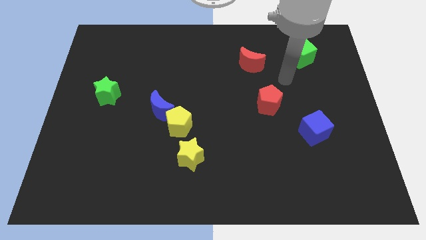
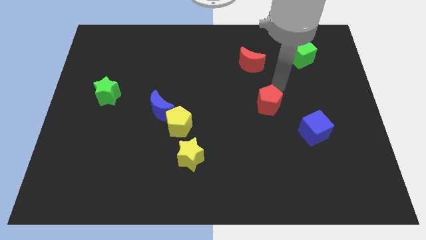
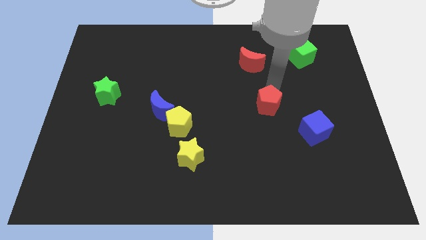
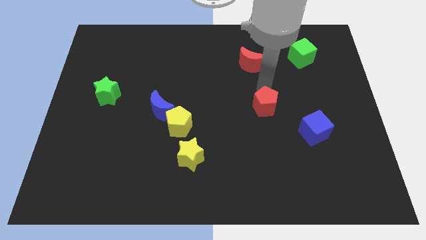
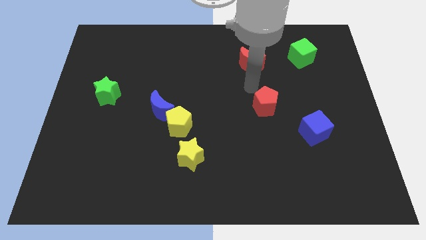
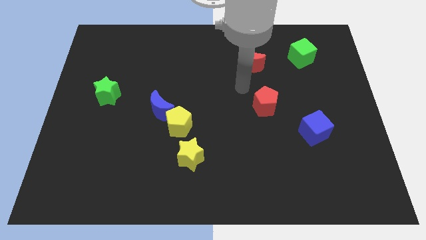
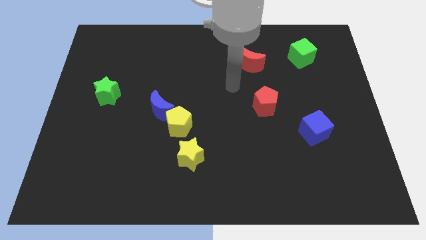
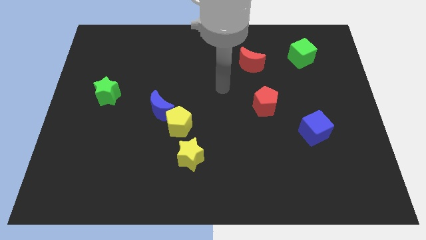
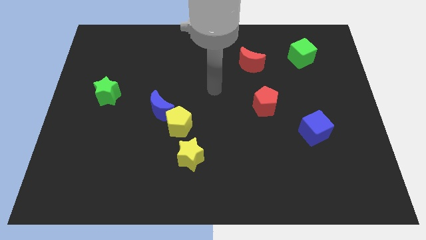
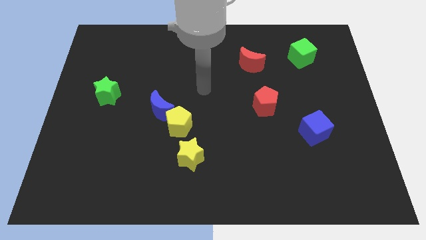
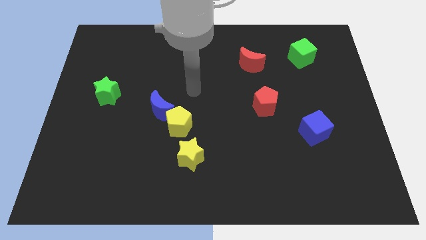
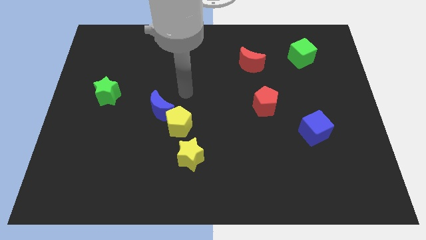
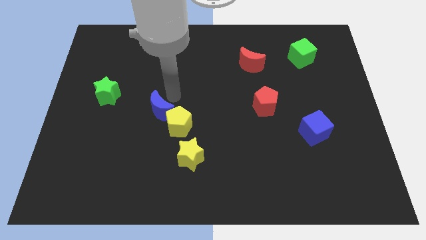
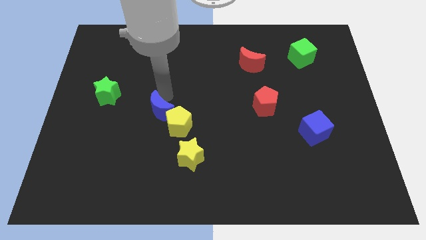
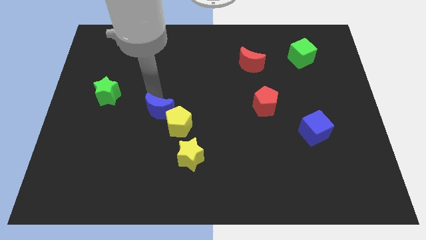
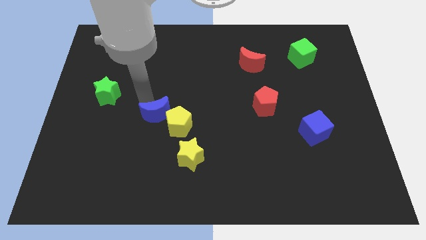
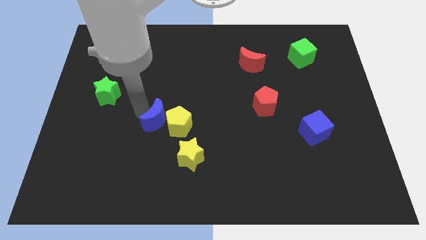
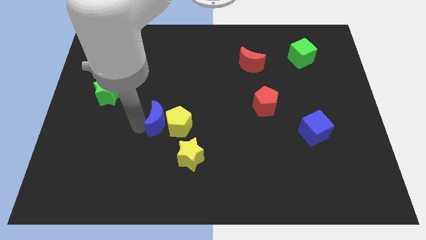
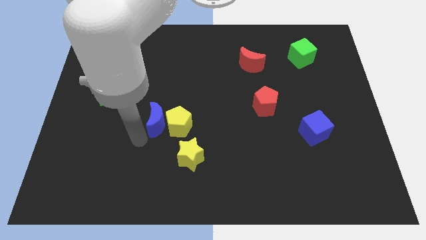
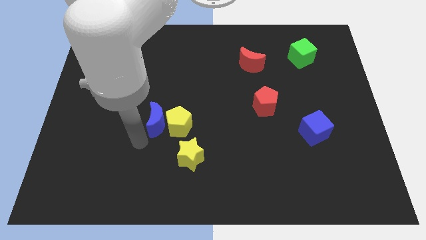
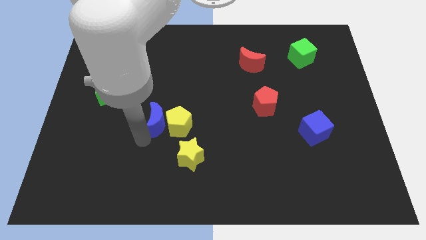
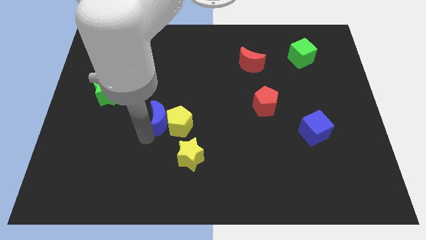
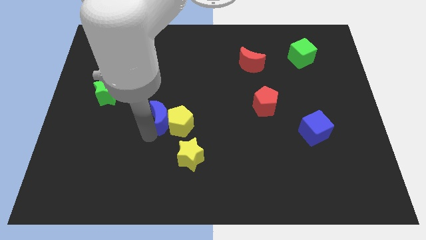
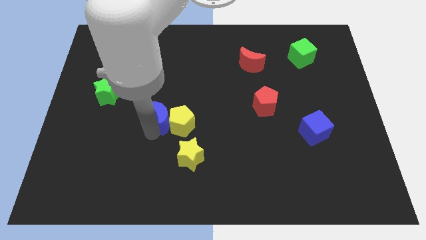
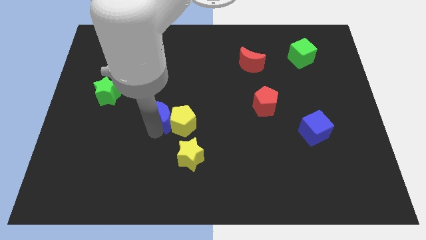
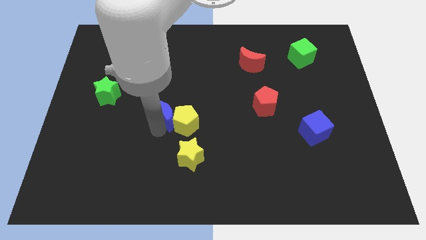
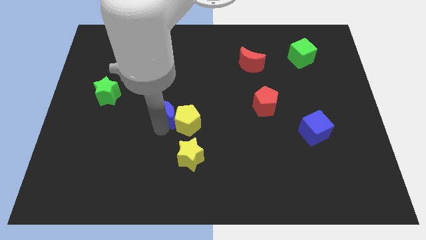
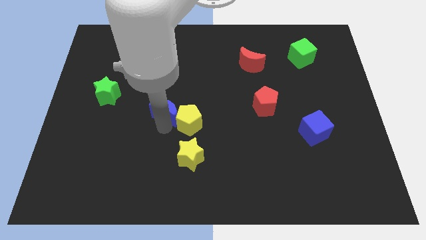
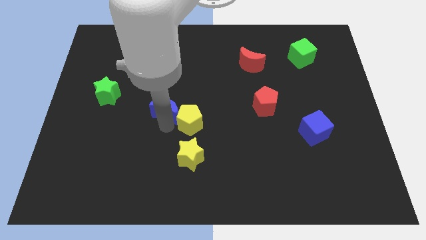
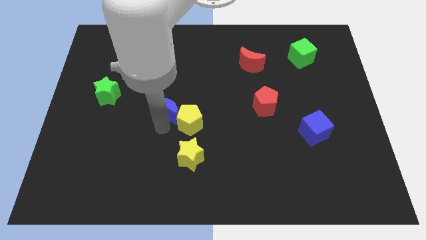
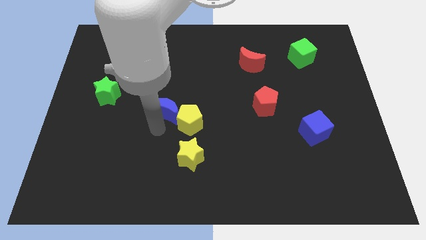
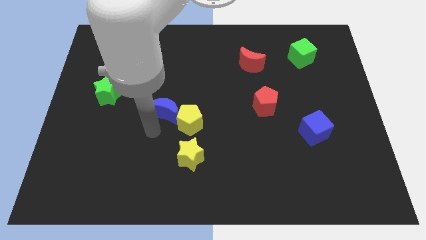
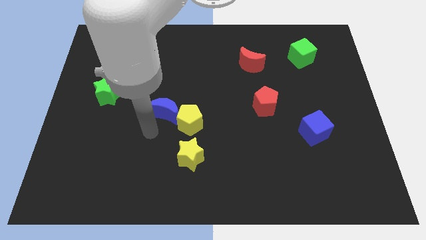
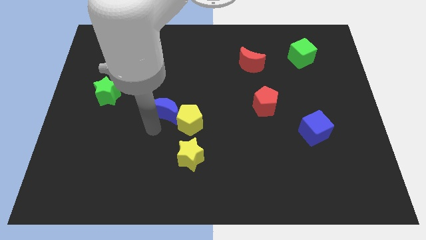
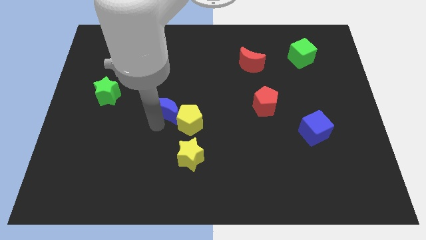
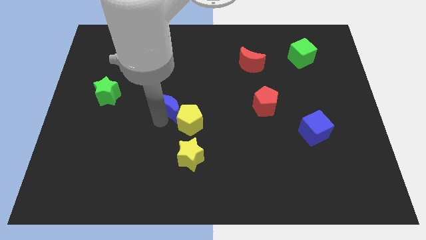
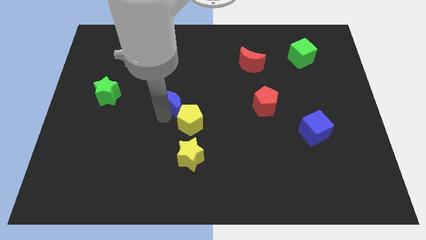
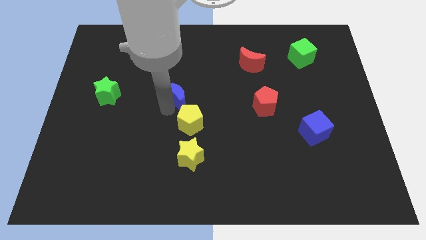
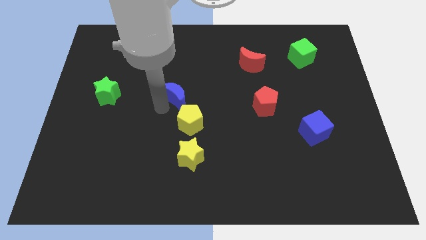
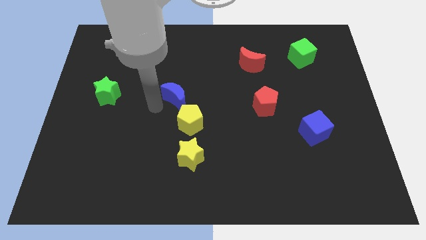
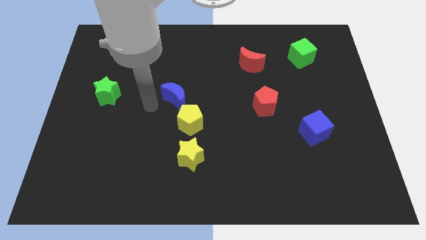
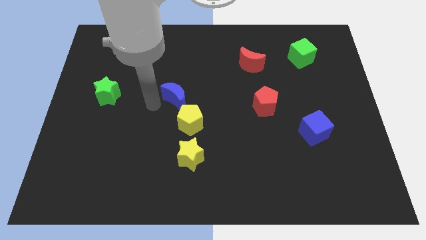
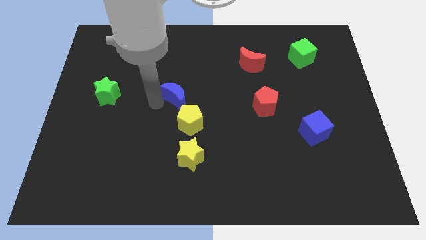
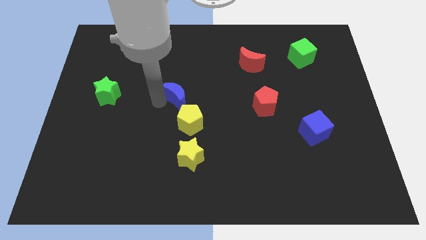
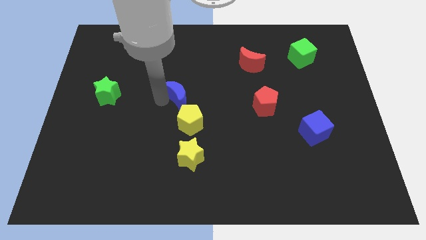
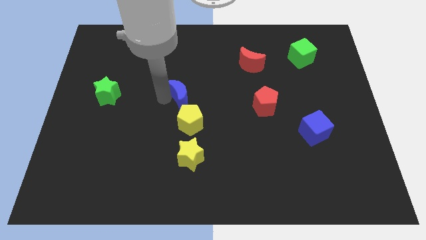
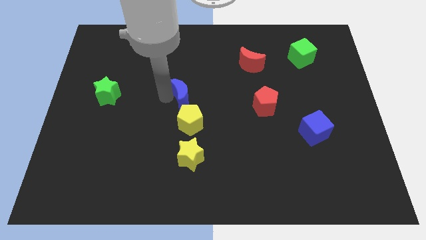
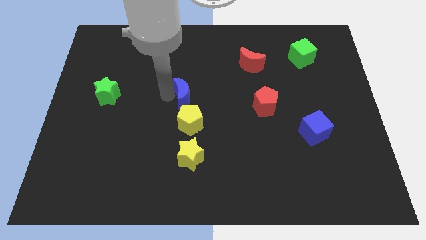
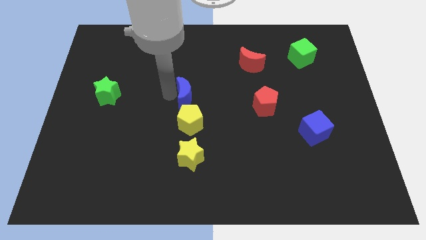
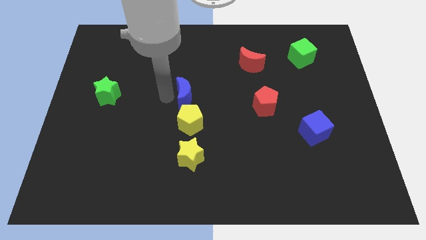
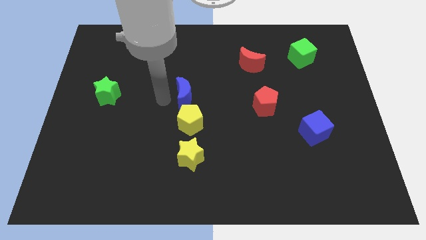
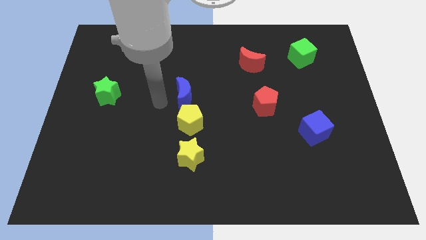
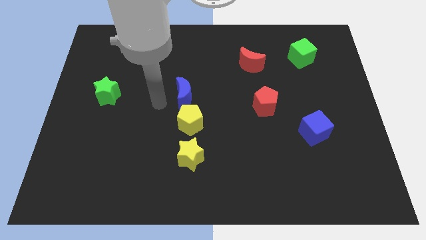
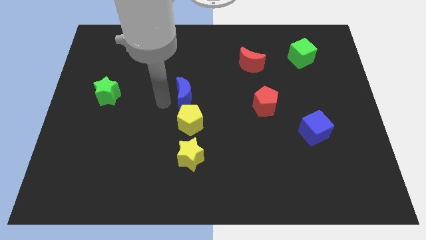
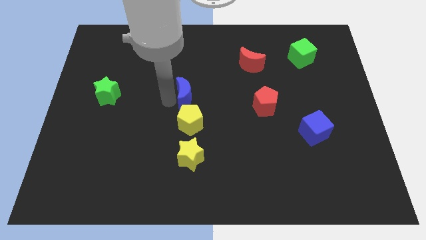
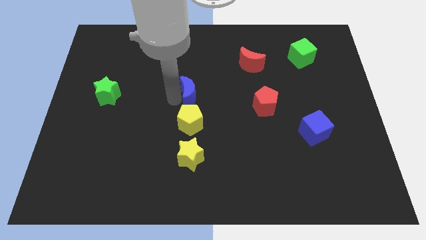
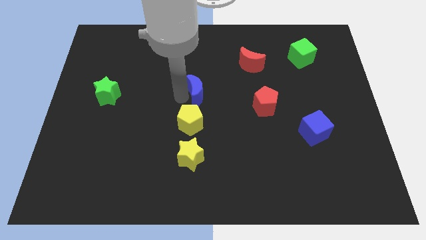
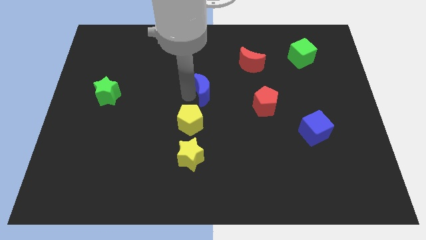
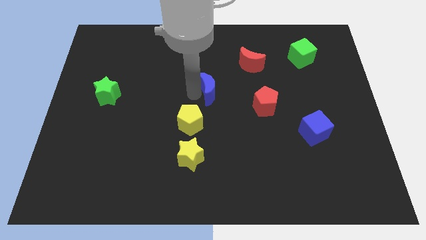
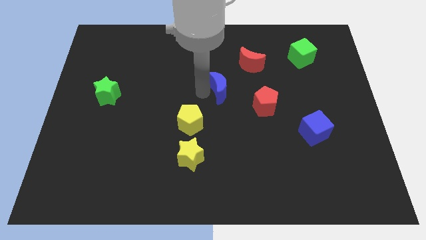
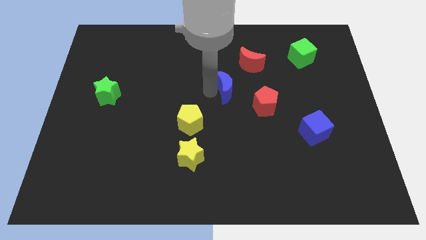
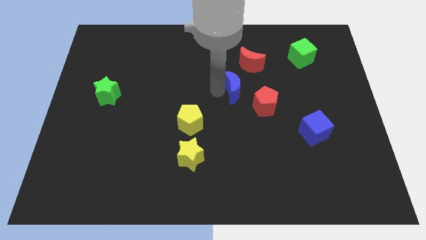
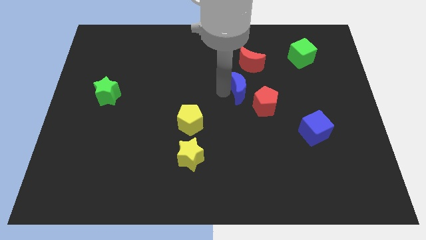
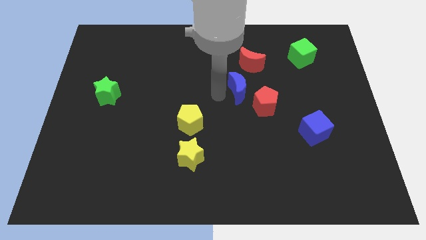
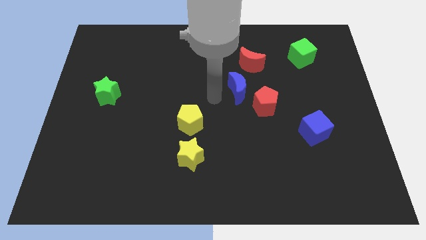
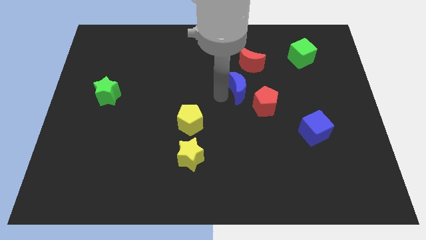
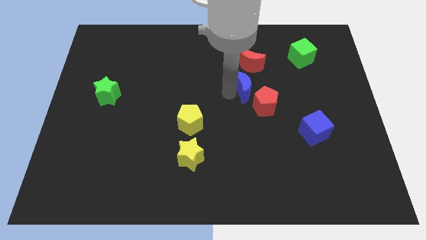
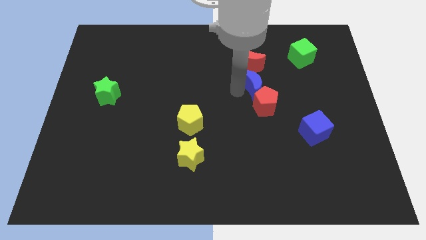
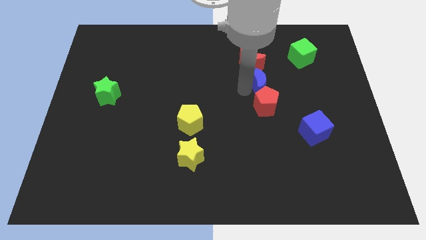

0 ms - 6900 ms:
push the blue moon to the bottom right side of the red moon
